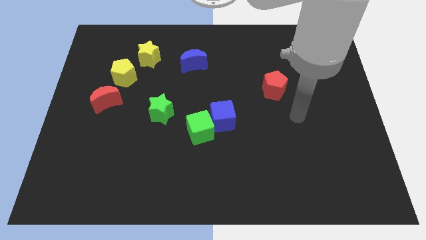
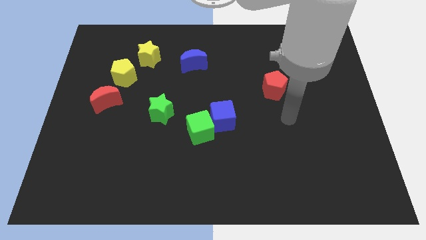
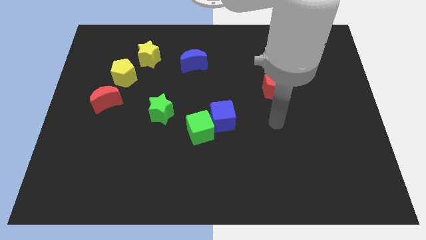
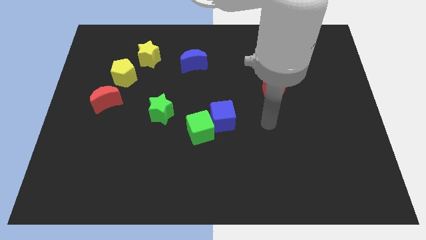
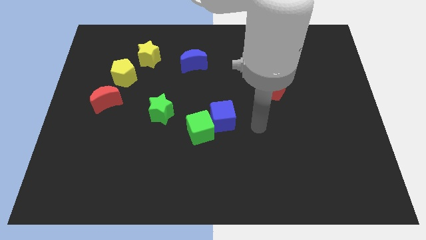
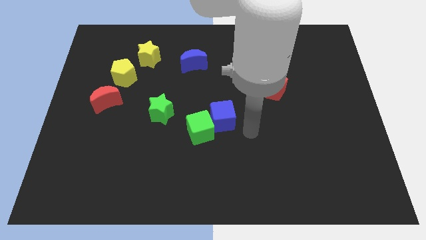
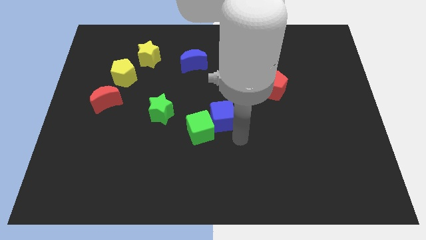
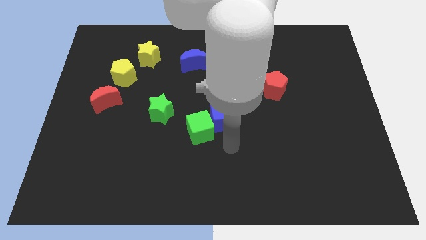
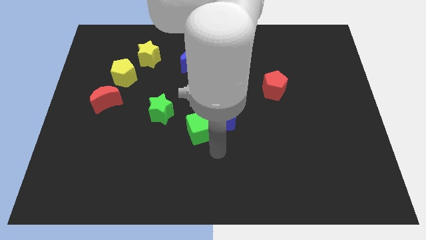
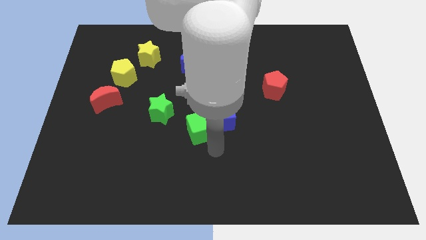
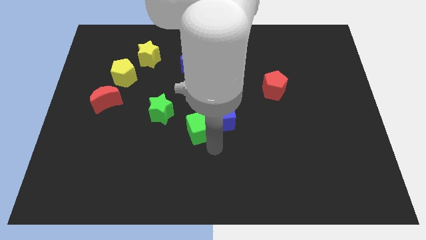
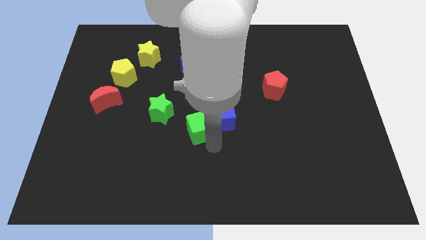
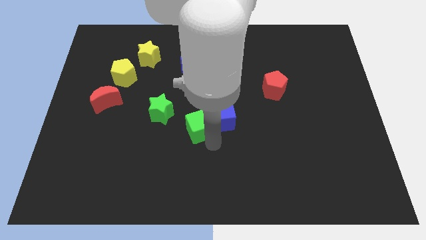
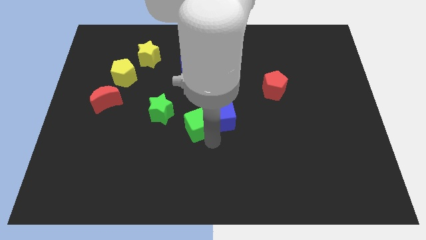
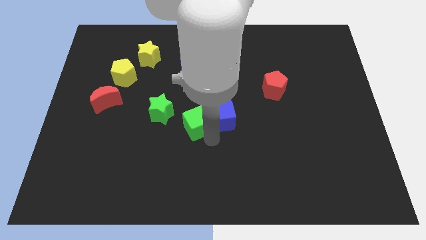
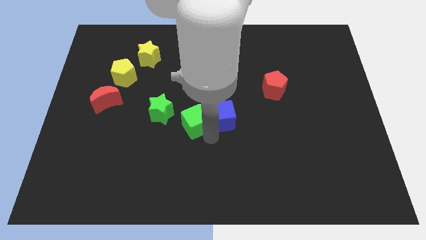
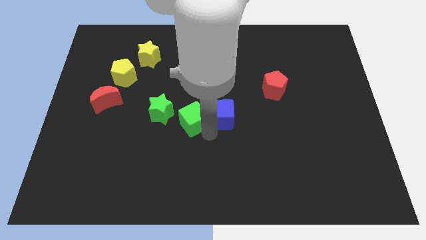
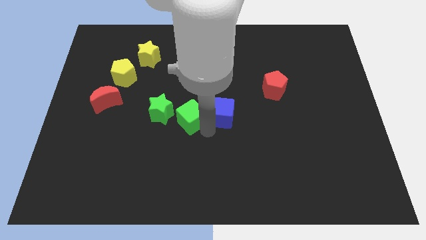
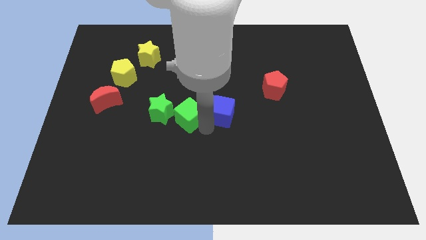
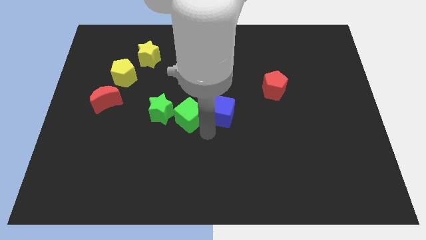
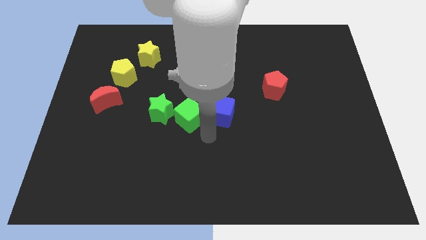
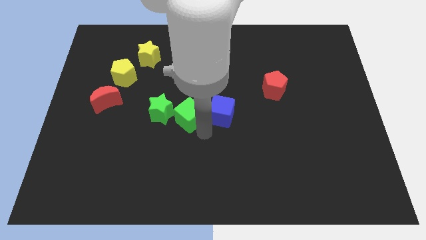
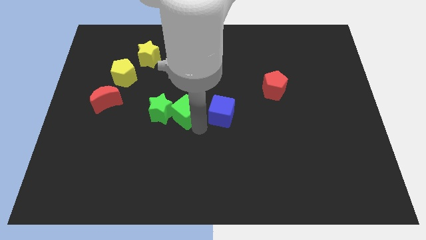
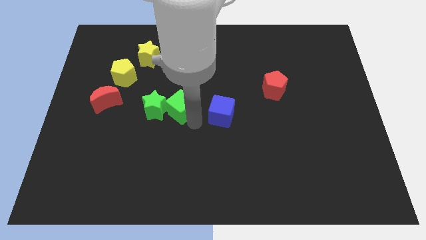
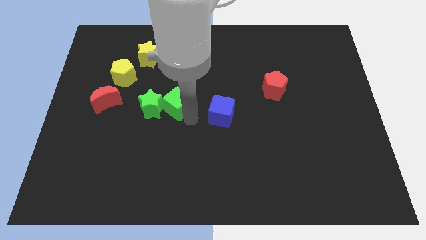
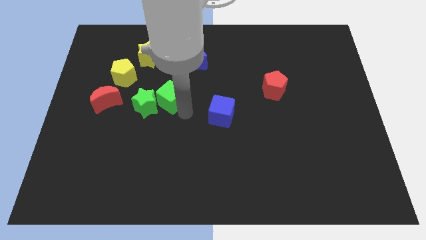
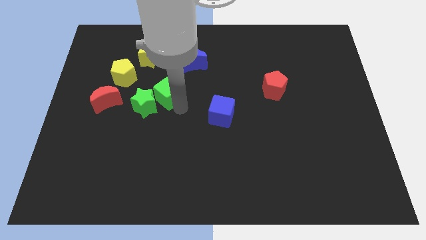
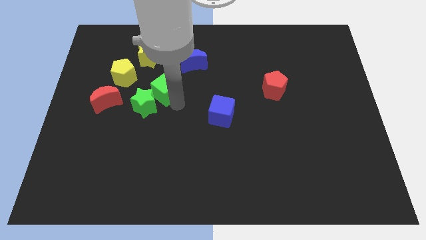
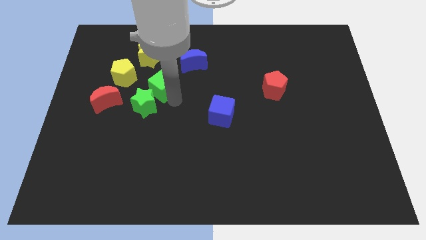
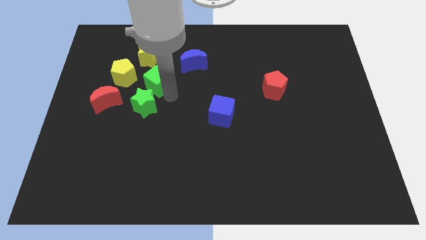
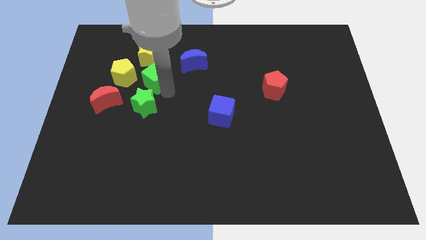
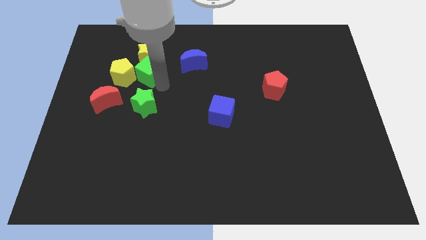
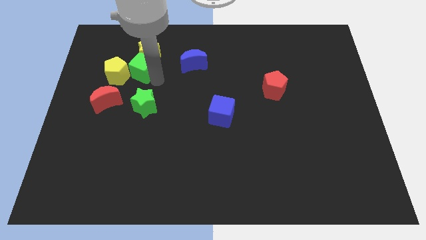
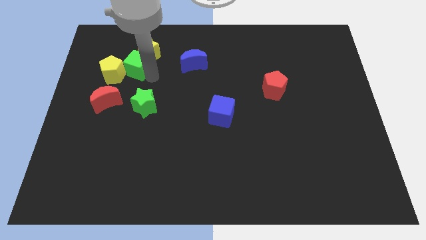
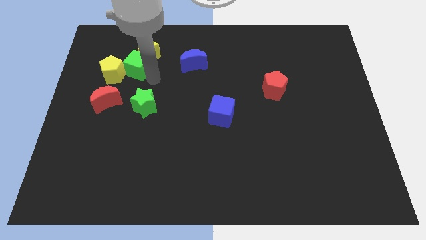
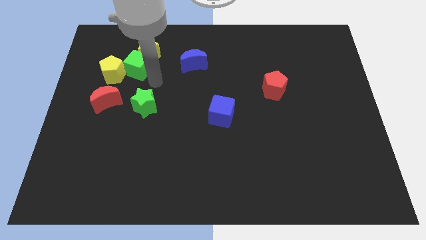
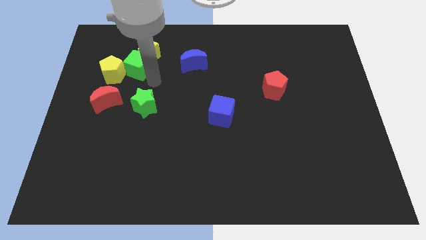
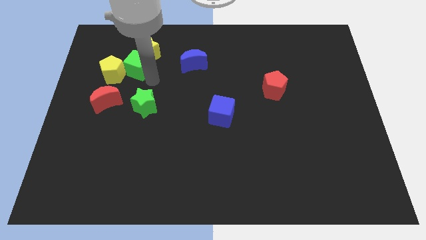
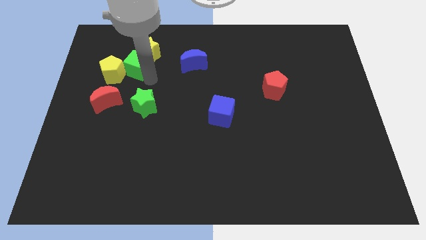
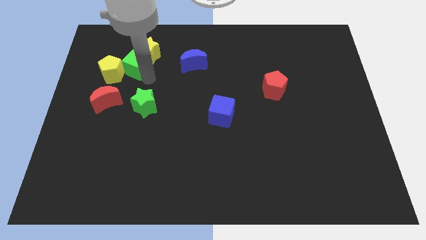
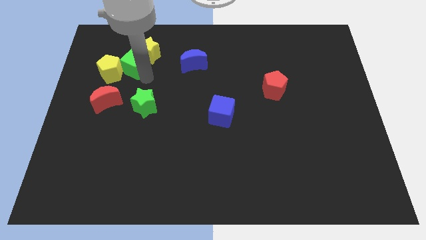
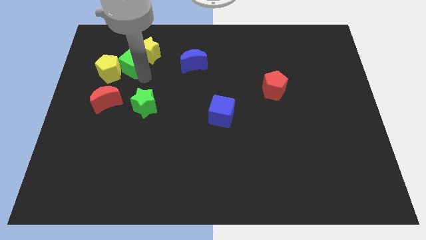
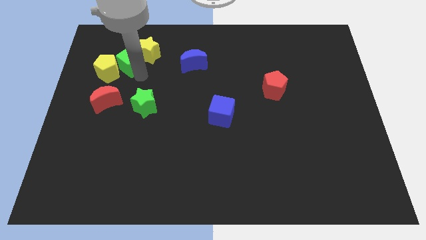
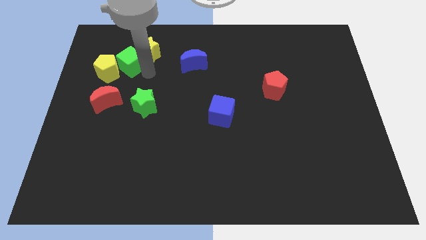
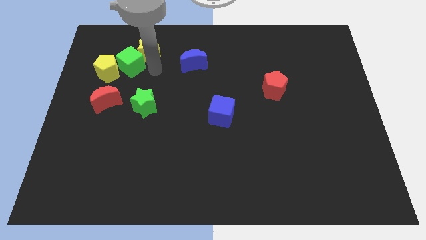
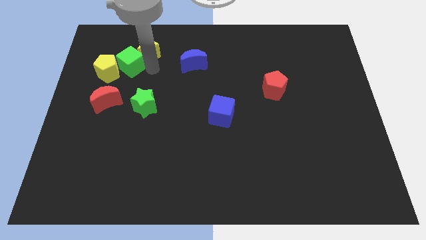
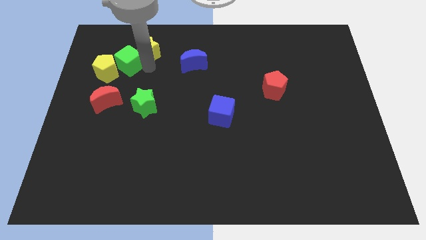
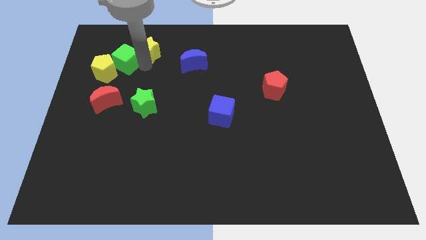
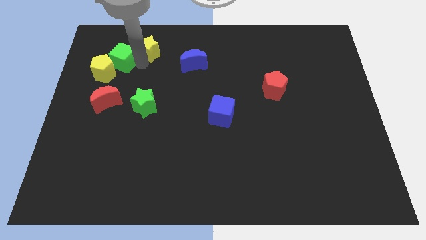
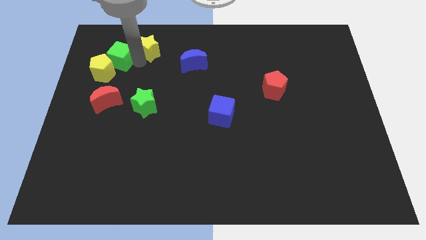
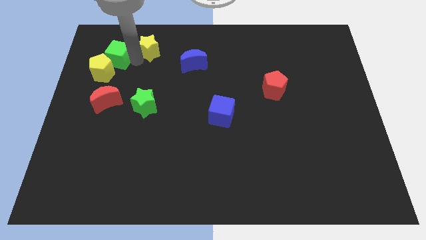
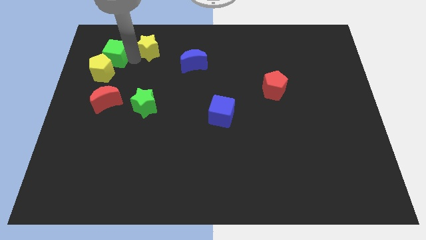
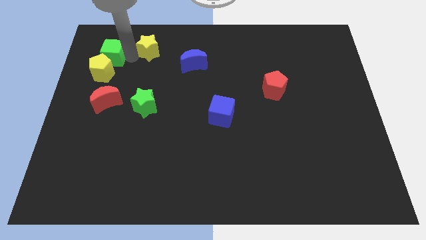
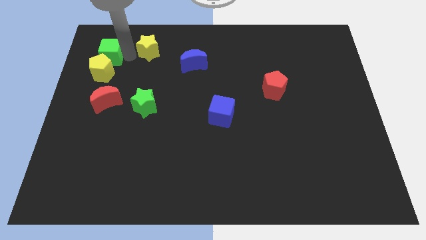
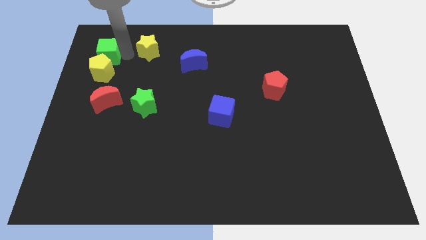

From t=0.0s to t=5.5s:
slide the green cube to the top left side of the yellow pentagon

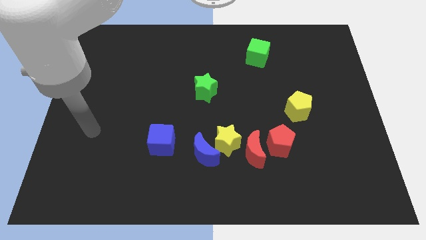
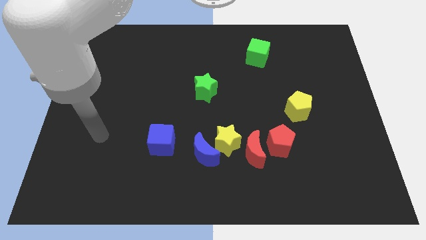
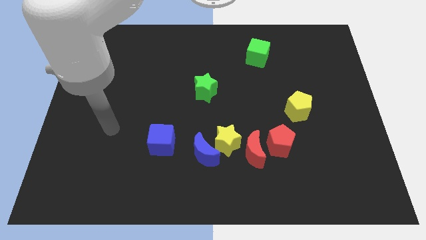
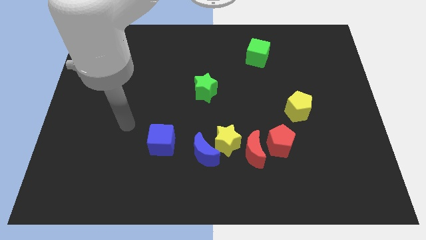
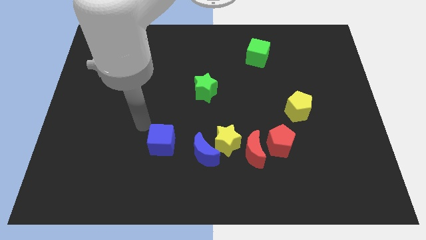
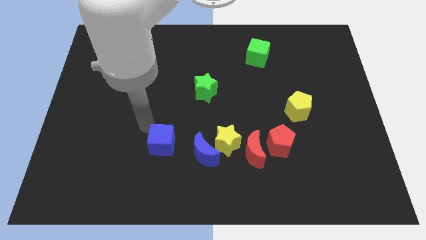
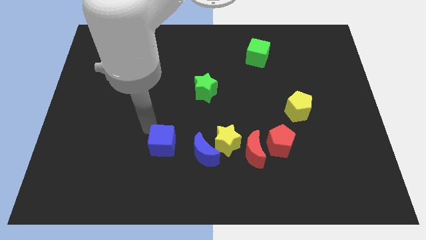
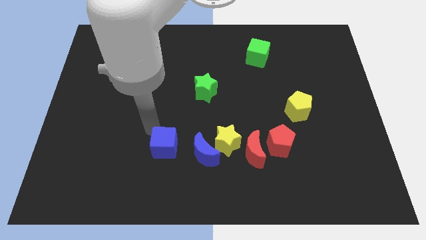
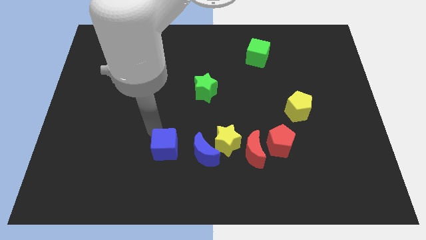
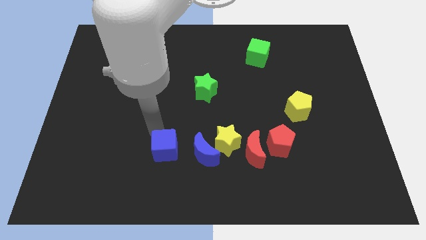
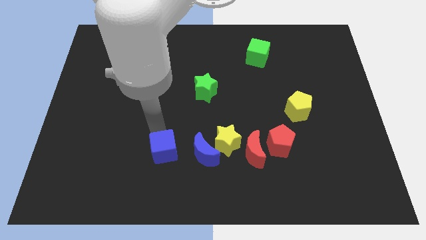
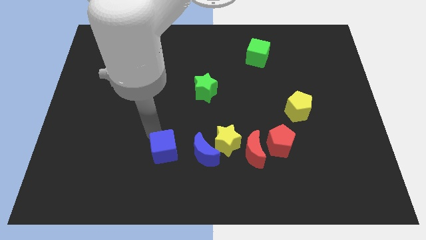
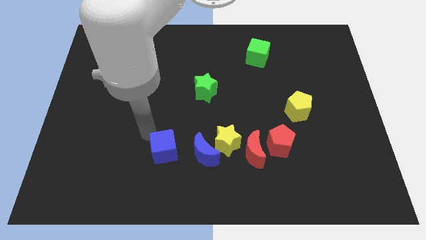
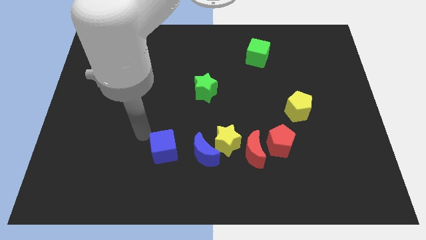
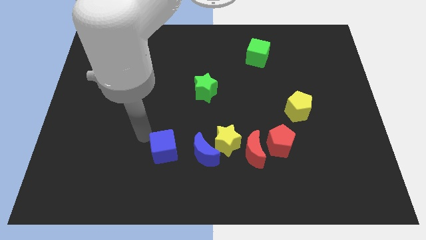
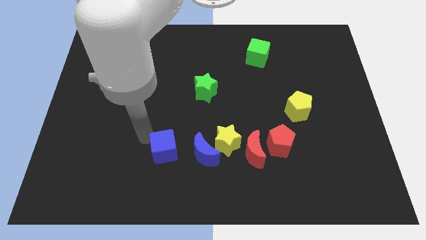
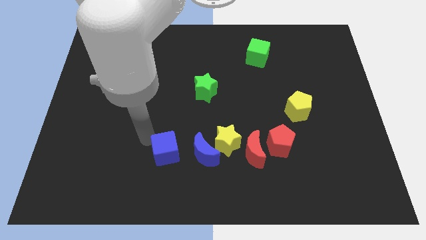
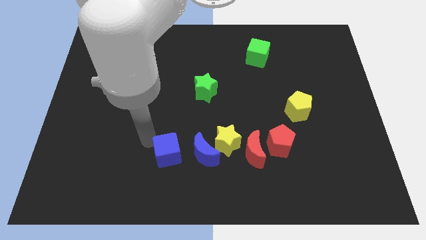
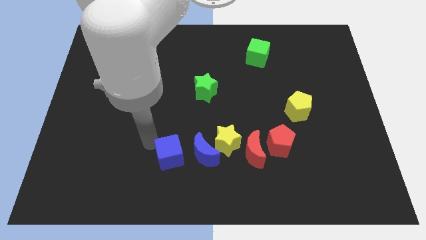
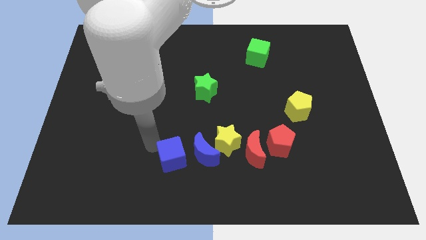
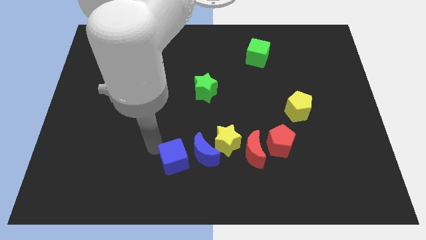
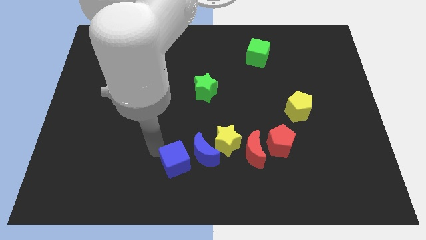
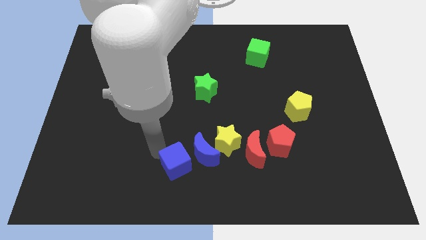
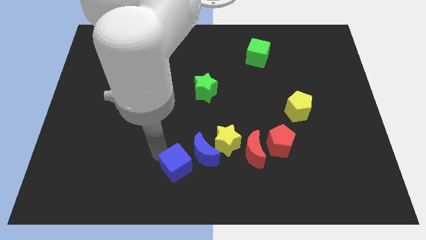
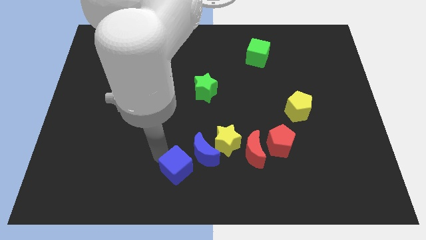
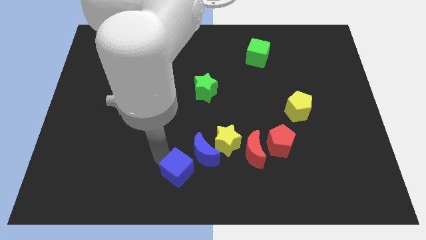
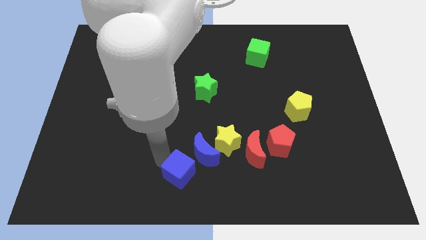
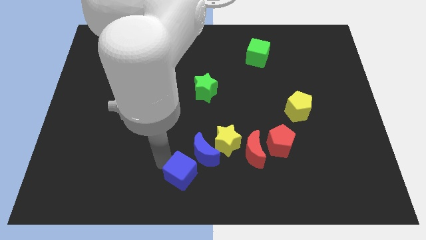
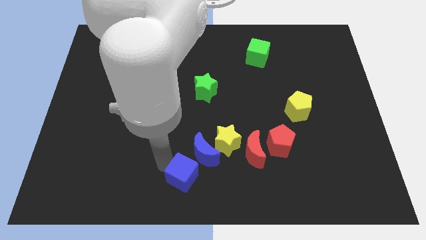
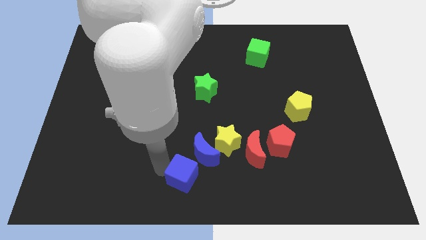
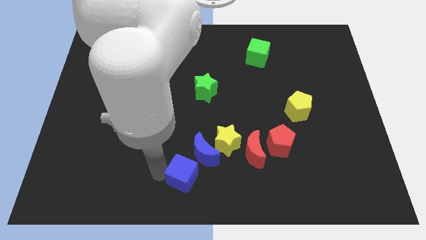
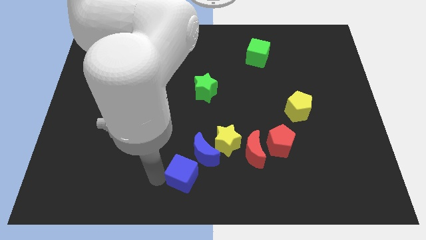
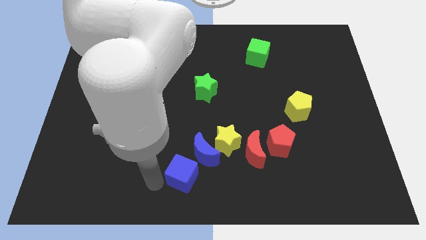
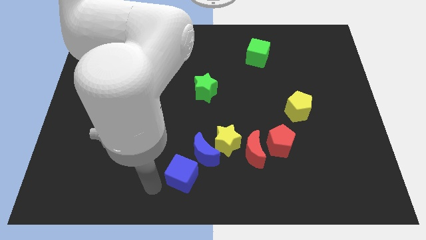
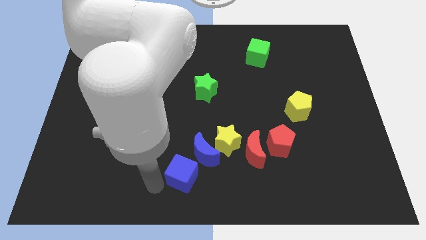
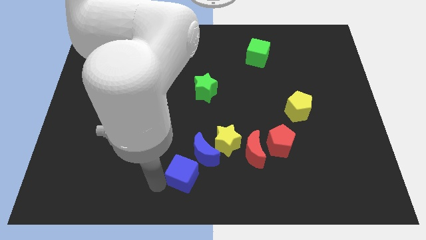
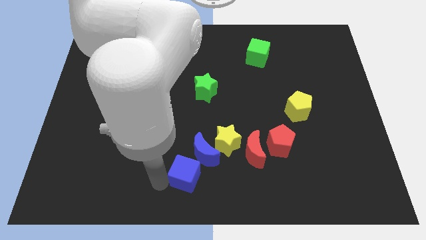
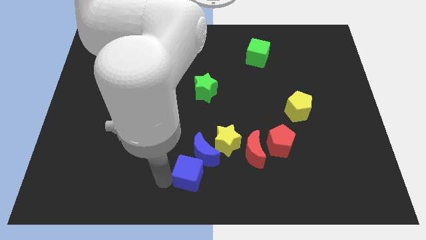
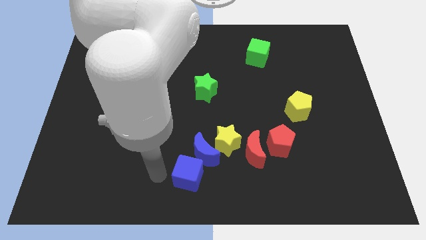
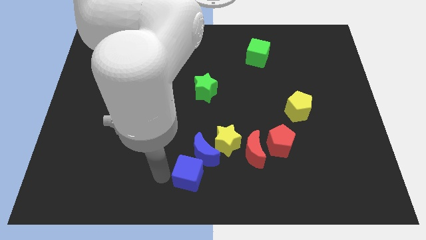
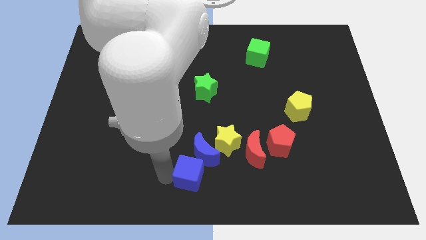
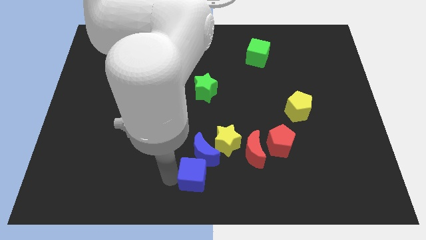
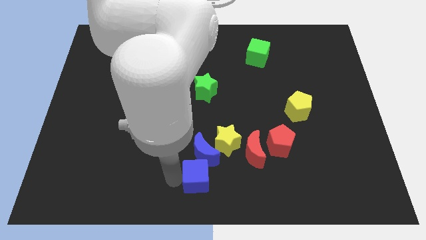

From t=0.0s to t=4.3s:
slide the blue cube diagonally down and to the right of the blue moon
